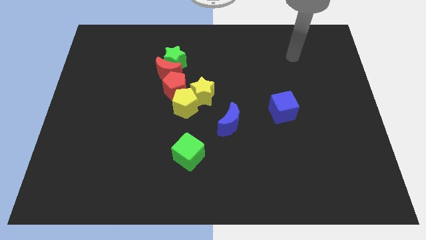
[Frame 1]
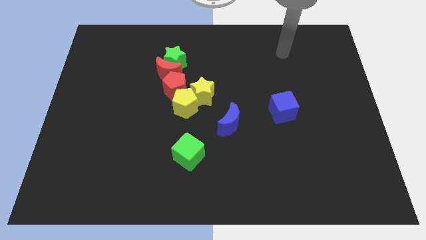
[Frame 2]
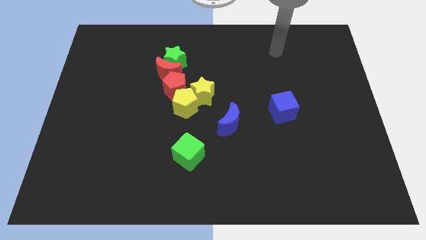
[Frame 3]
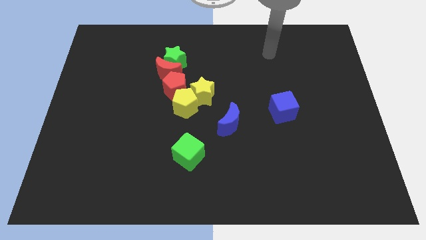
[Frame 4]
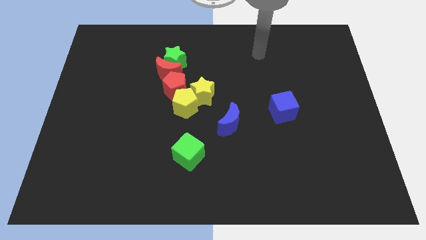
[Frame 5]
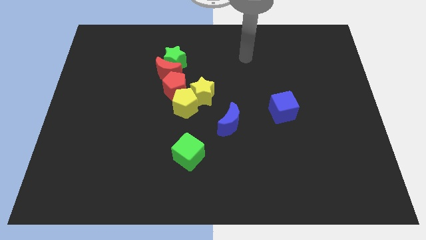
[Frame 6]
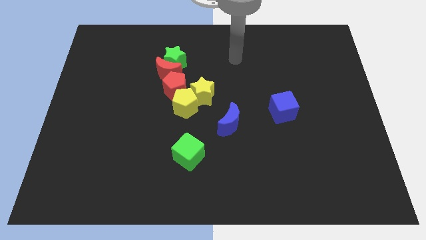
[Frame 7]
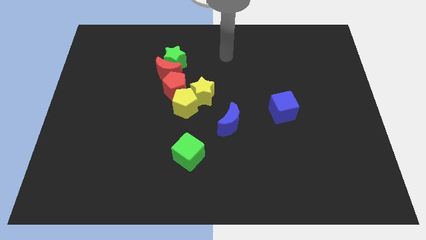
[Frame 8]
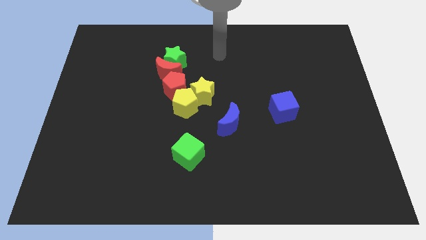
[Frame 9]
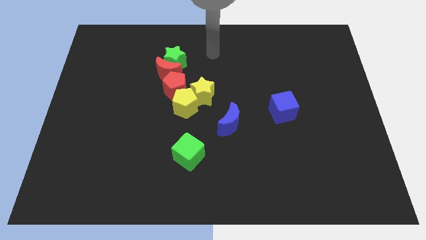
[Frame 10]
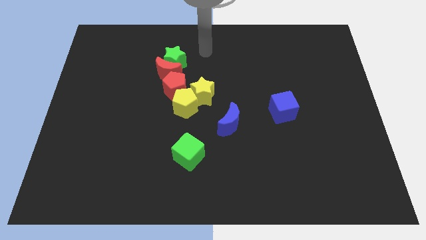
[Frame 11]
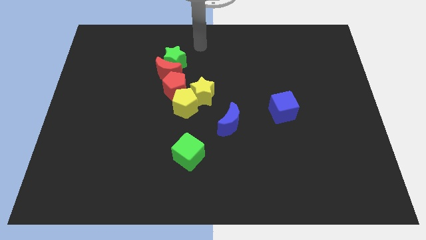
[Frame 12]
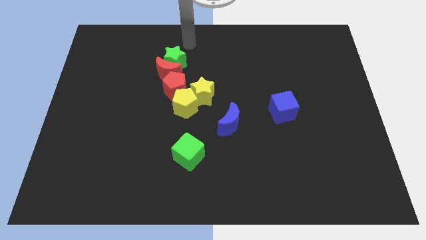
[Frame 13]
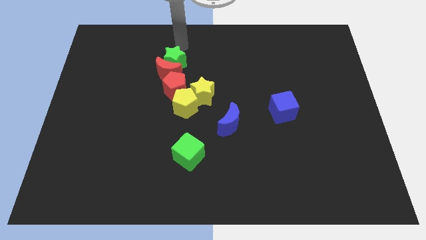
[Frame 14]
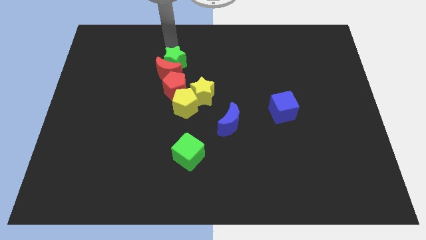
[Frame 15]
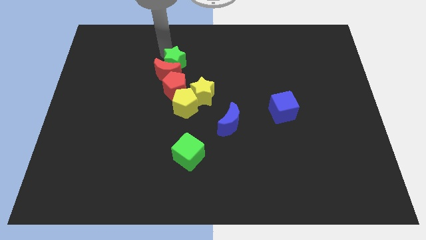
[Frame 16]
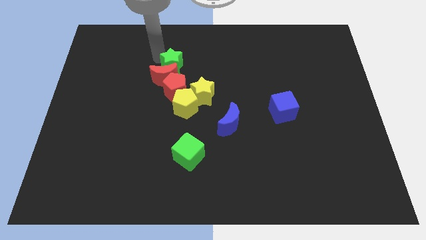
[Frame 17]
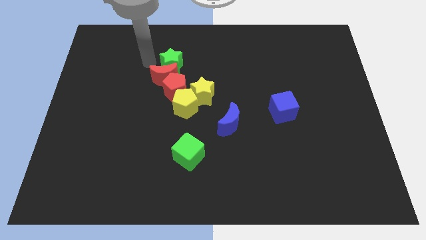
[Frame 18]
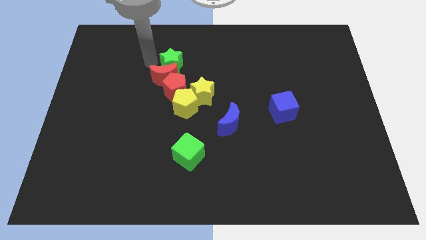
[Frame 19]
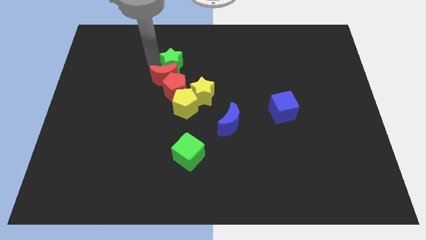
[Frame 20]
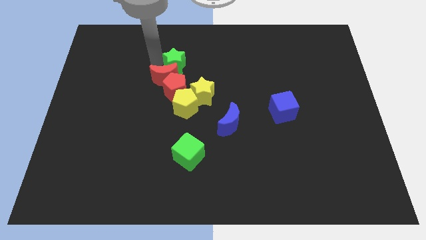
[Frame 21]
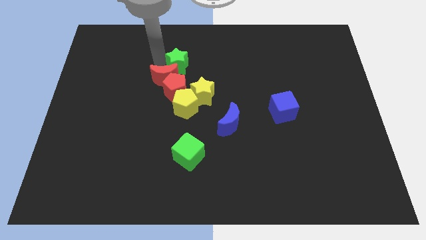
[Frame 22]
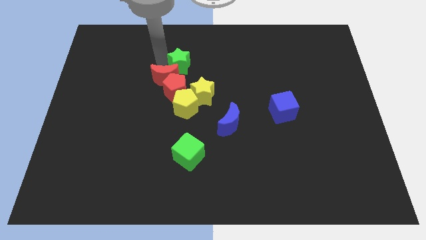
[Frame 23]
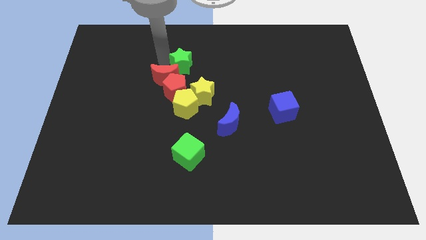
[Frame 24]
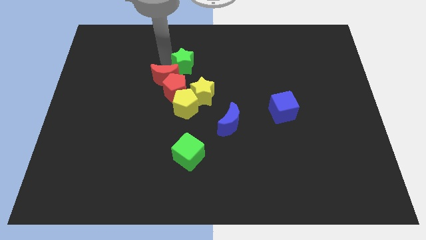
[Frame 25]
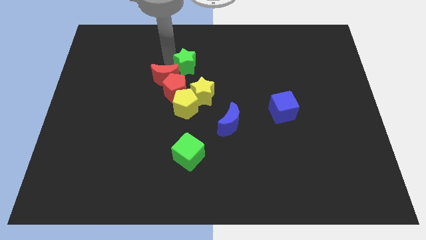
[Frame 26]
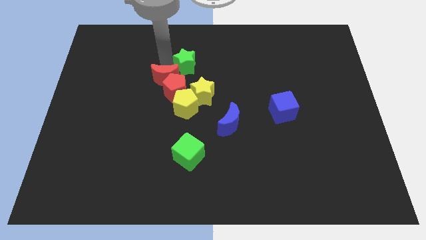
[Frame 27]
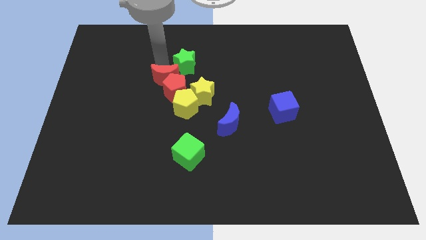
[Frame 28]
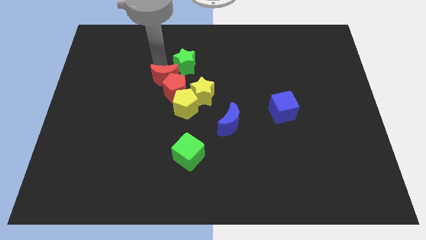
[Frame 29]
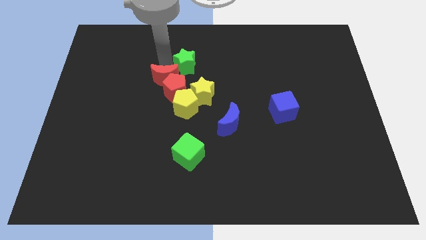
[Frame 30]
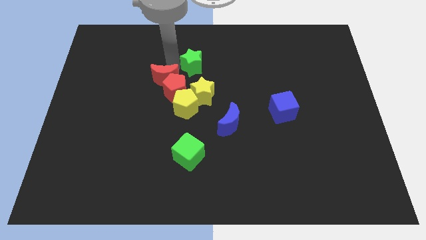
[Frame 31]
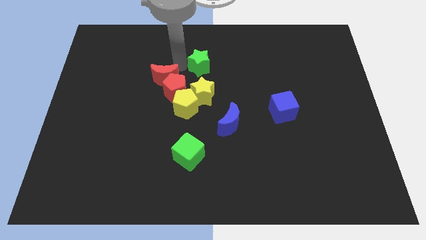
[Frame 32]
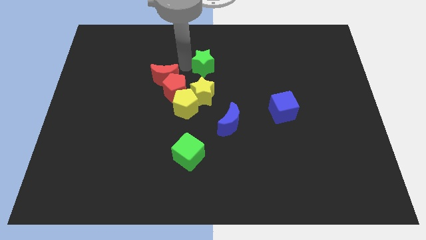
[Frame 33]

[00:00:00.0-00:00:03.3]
slightly slide the green star to the right

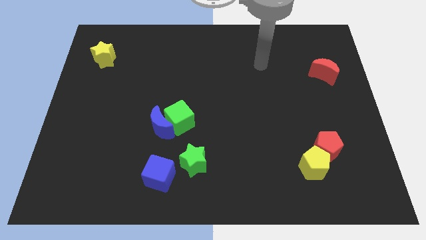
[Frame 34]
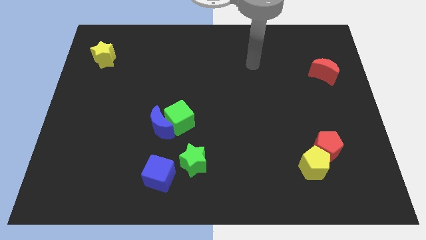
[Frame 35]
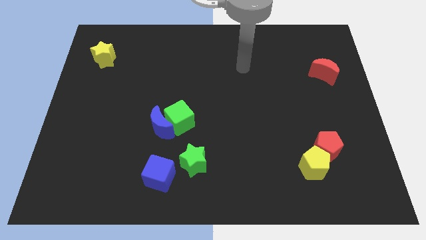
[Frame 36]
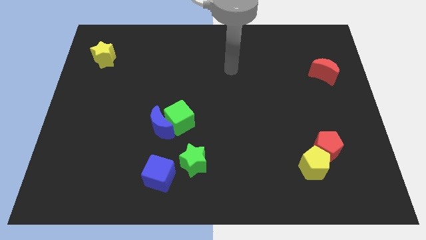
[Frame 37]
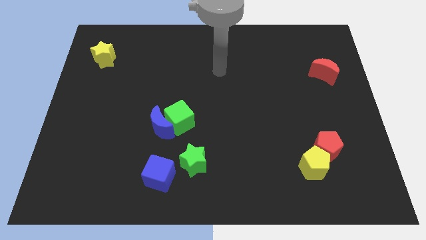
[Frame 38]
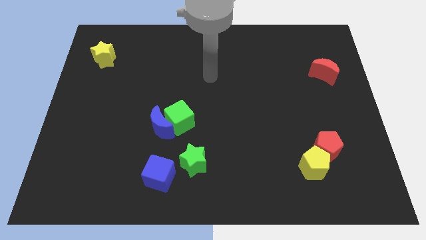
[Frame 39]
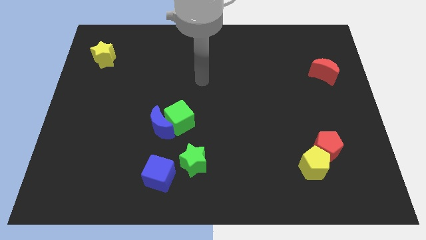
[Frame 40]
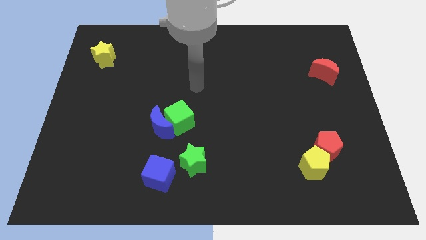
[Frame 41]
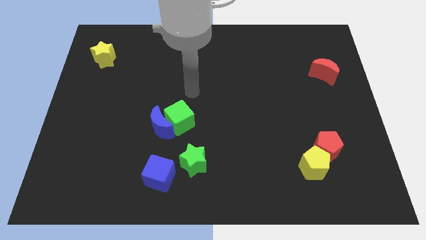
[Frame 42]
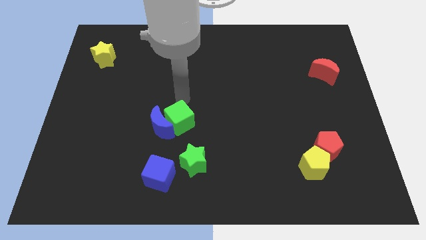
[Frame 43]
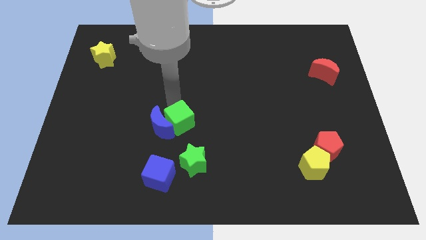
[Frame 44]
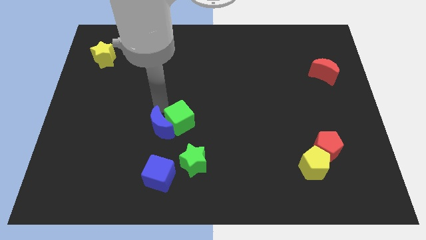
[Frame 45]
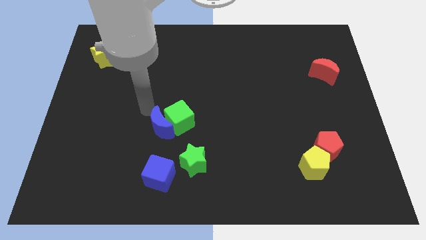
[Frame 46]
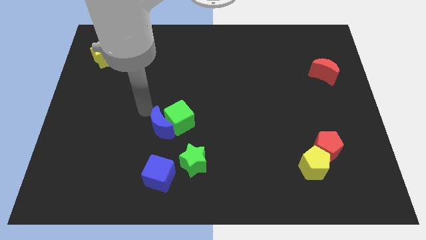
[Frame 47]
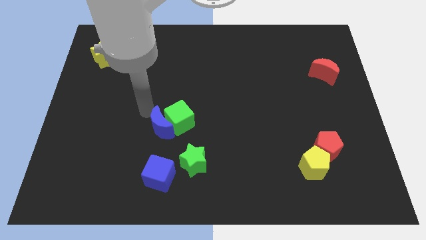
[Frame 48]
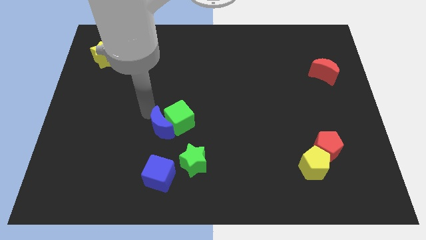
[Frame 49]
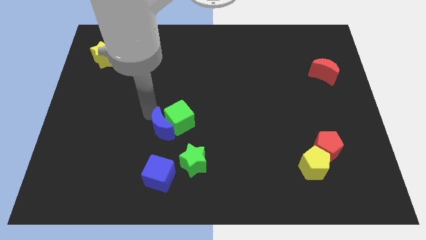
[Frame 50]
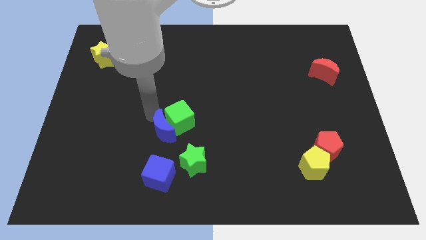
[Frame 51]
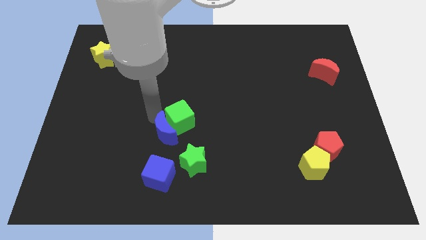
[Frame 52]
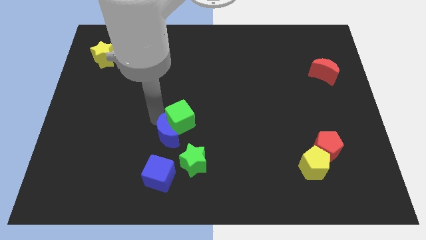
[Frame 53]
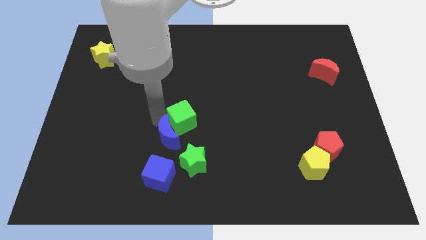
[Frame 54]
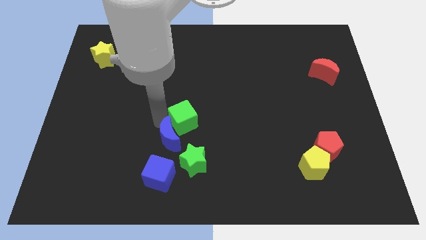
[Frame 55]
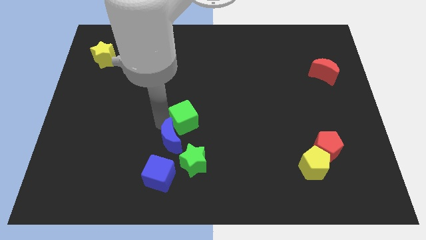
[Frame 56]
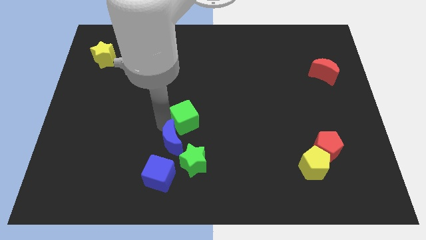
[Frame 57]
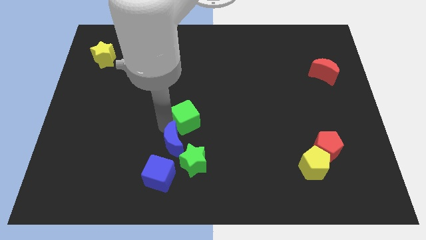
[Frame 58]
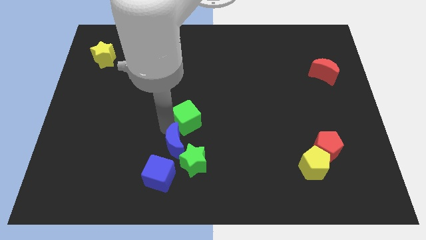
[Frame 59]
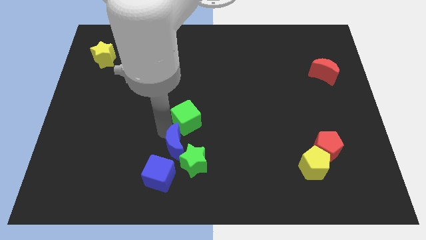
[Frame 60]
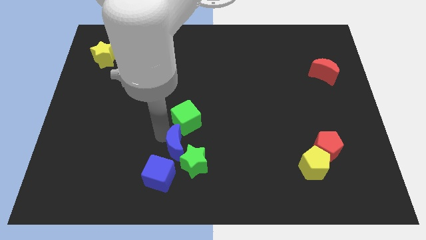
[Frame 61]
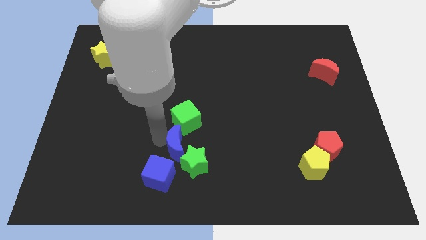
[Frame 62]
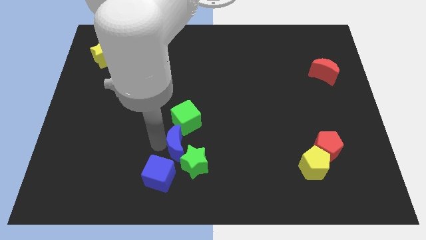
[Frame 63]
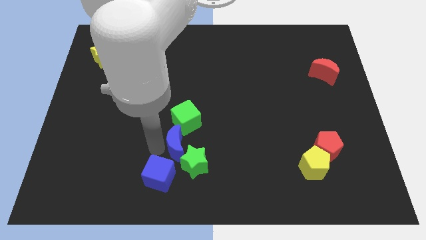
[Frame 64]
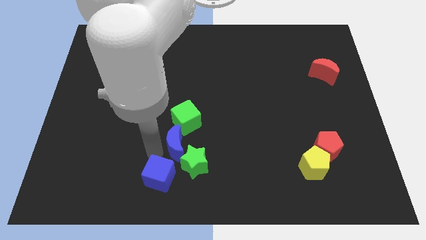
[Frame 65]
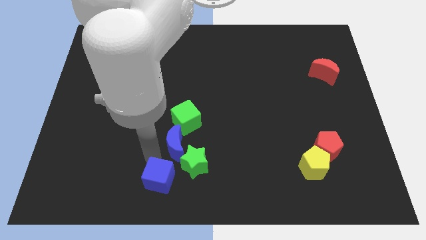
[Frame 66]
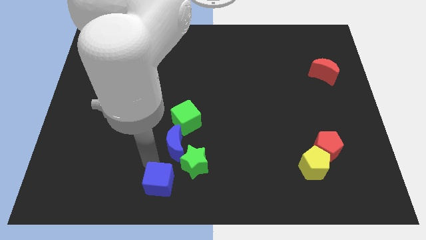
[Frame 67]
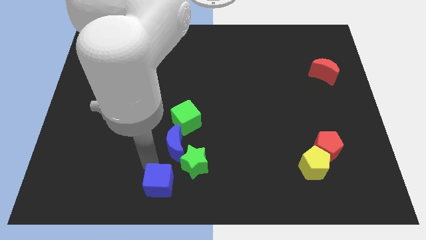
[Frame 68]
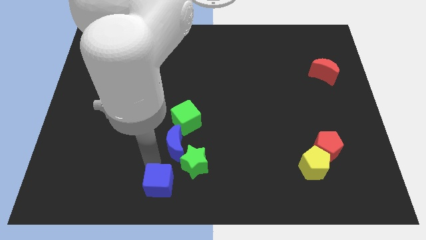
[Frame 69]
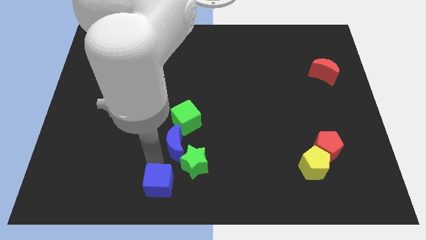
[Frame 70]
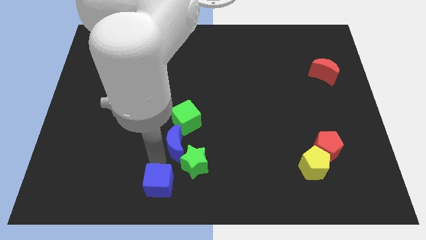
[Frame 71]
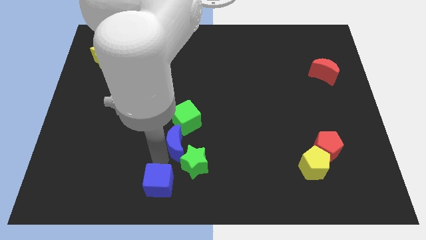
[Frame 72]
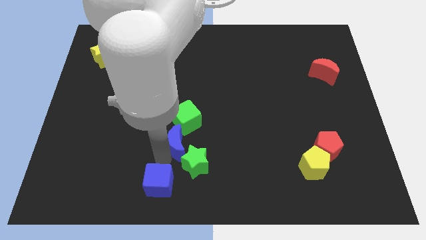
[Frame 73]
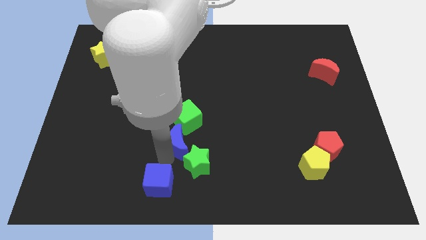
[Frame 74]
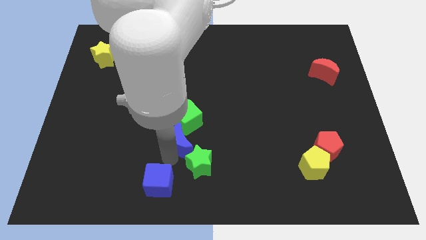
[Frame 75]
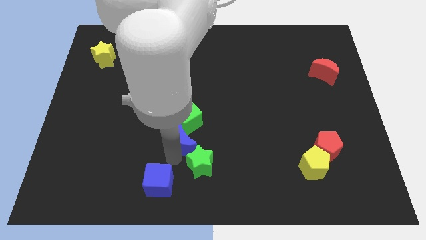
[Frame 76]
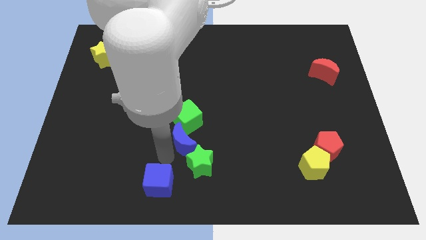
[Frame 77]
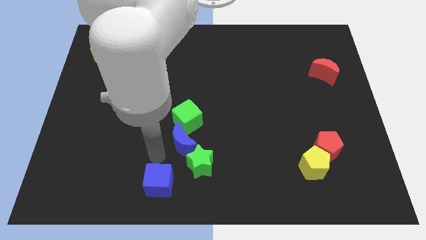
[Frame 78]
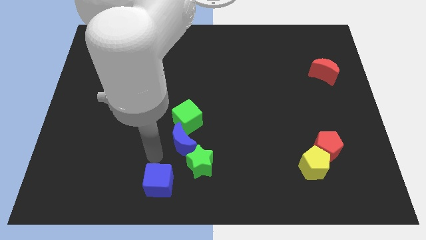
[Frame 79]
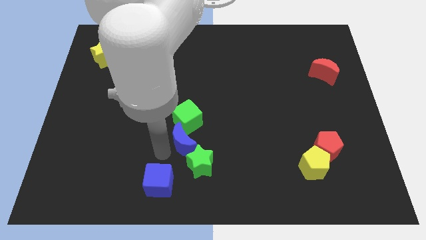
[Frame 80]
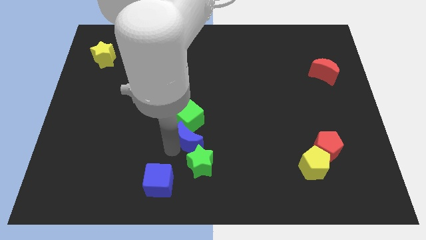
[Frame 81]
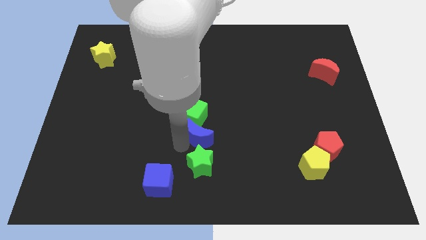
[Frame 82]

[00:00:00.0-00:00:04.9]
move the blue moon to the right somewhat

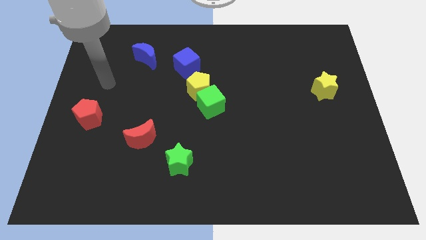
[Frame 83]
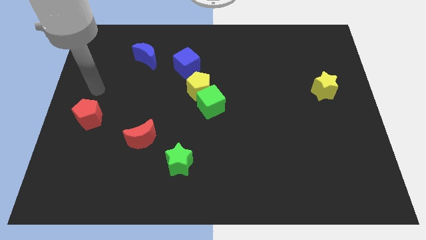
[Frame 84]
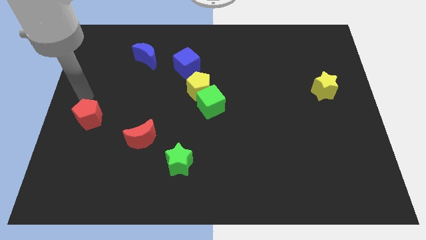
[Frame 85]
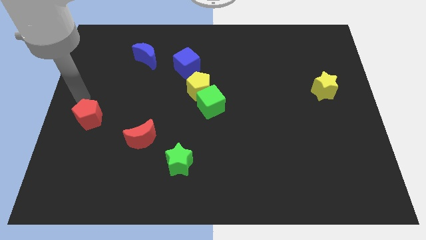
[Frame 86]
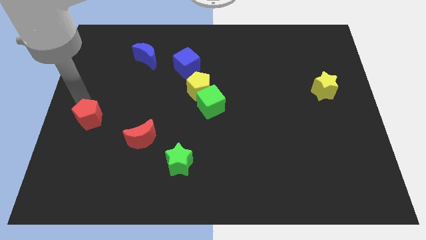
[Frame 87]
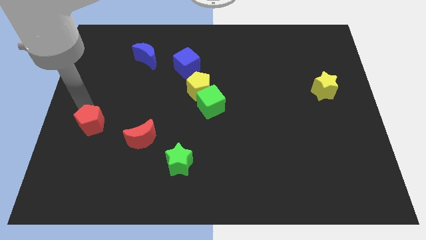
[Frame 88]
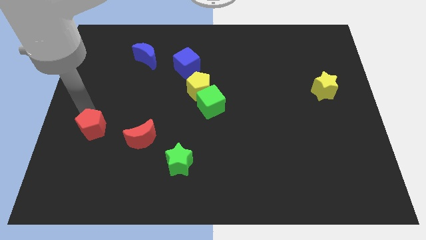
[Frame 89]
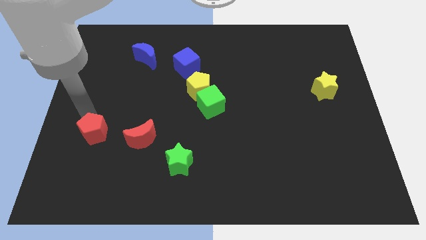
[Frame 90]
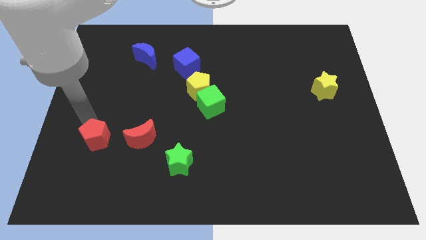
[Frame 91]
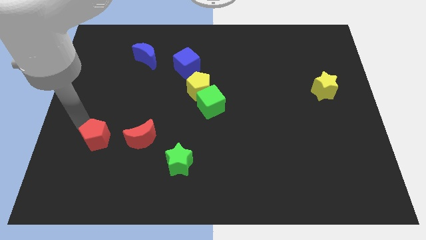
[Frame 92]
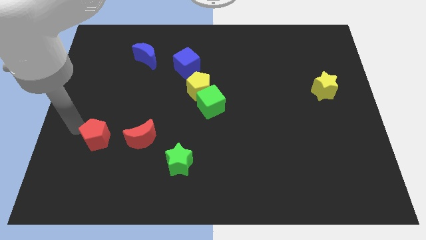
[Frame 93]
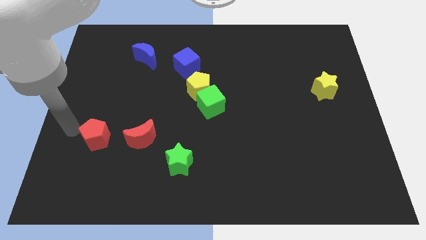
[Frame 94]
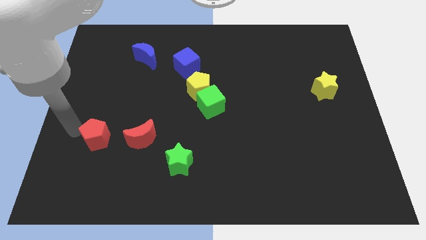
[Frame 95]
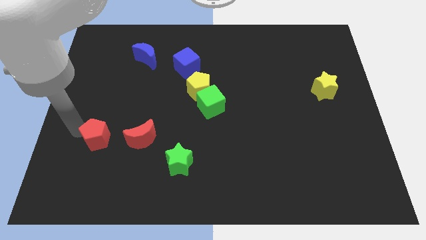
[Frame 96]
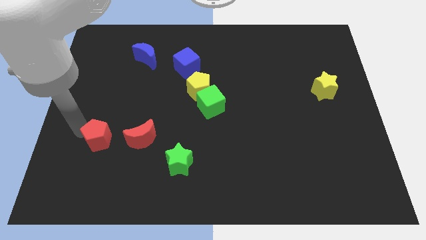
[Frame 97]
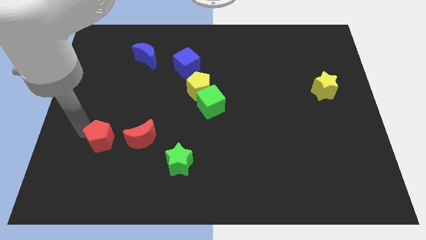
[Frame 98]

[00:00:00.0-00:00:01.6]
push the red pentagon downwards and right diagonally slightly
